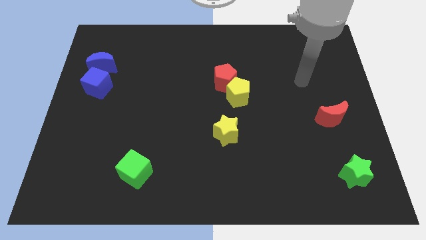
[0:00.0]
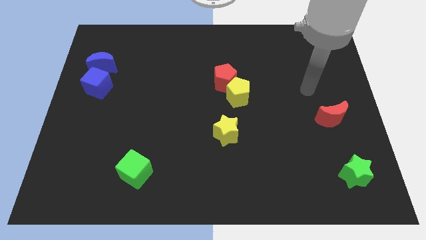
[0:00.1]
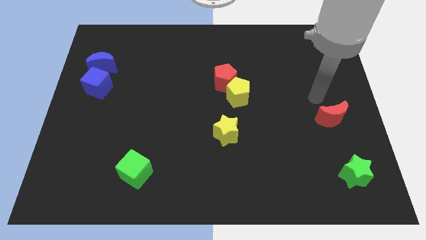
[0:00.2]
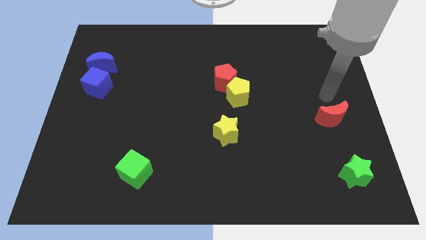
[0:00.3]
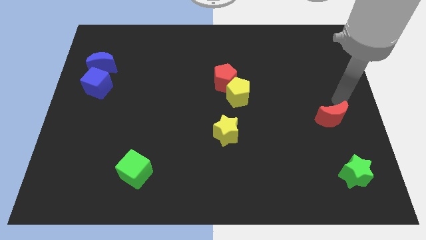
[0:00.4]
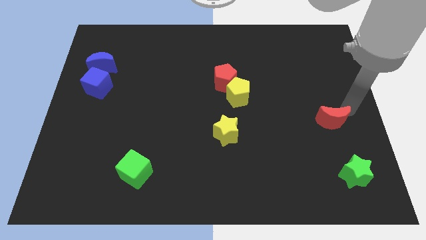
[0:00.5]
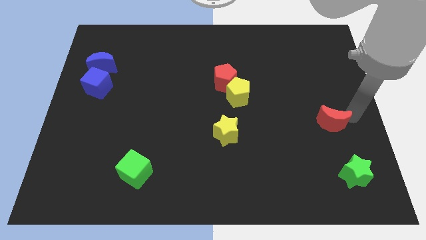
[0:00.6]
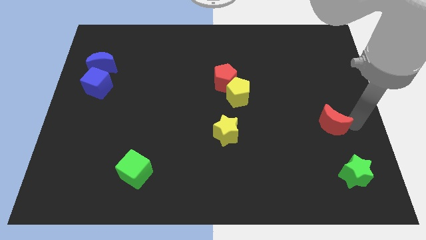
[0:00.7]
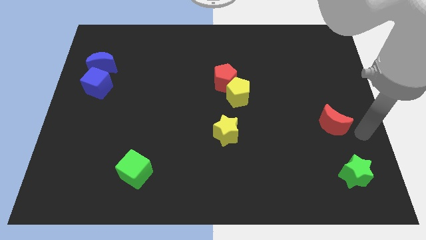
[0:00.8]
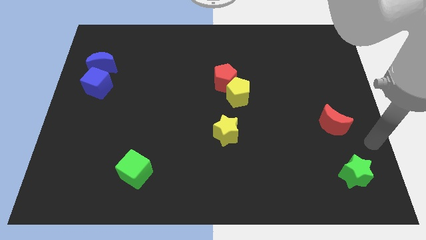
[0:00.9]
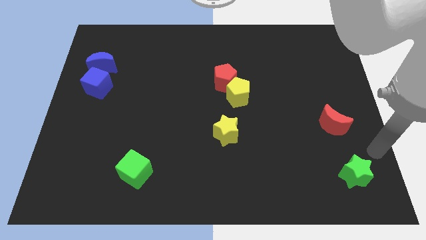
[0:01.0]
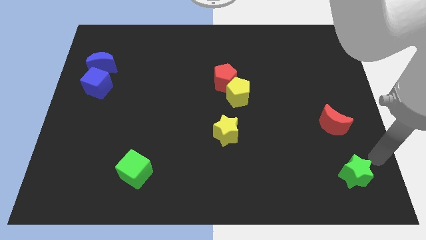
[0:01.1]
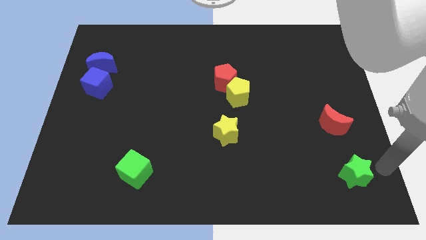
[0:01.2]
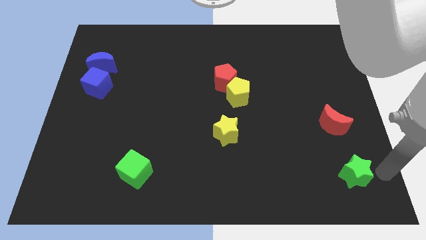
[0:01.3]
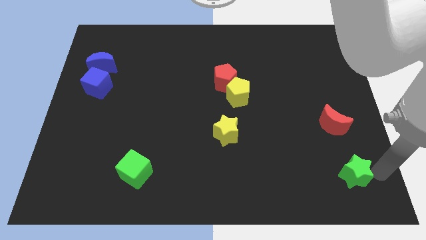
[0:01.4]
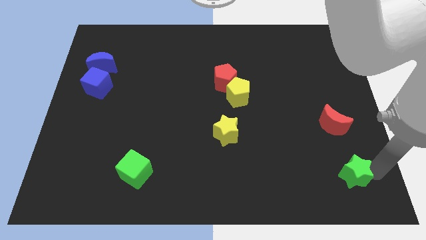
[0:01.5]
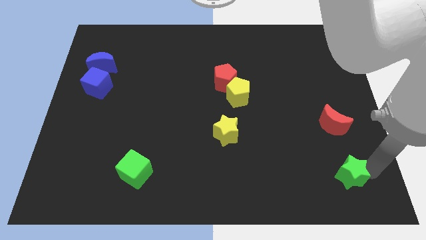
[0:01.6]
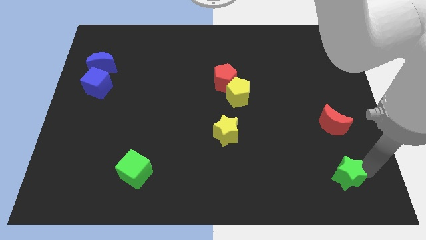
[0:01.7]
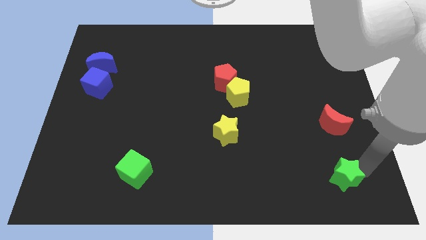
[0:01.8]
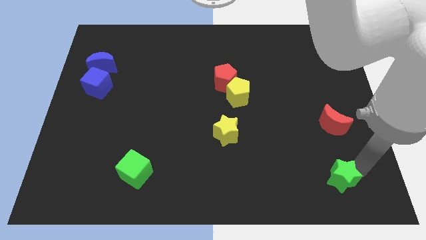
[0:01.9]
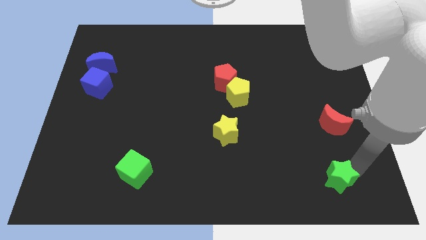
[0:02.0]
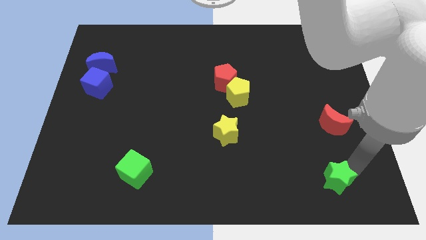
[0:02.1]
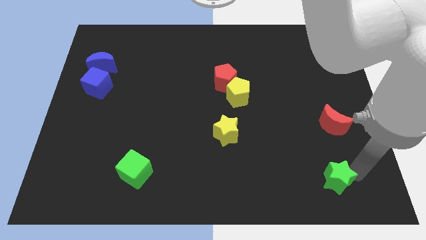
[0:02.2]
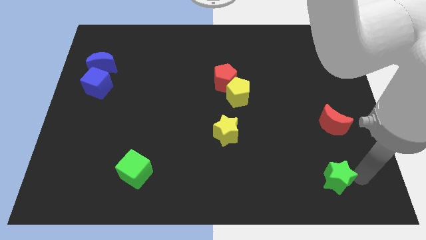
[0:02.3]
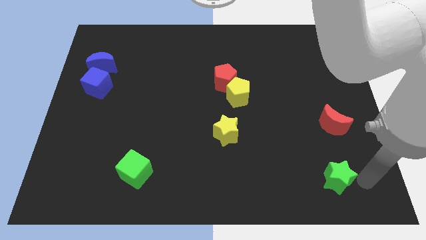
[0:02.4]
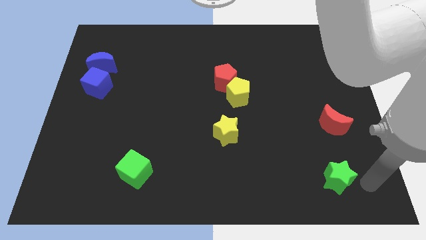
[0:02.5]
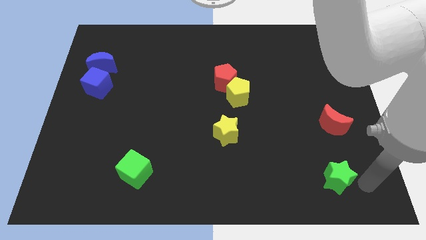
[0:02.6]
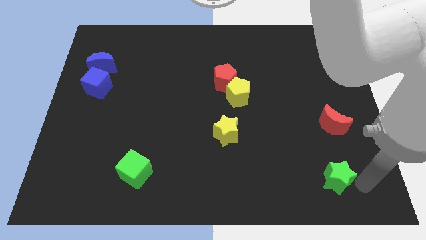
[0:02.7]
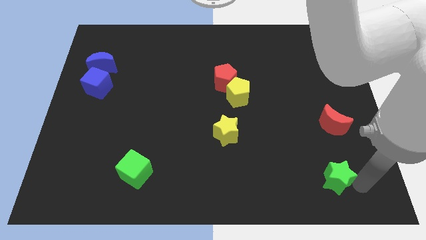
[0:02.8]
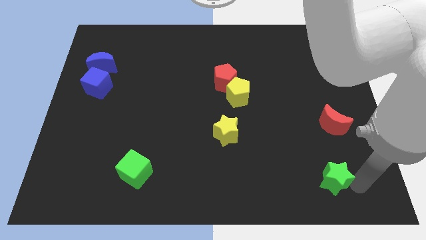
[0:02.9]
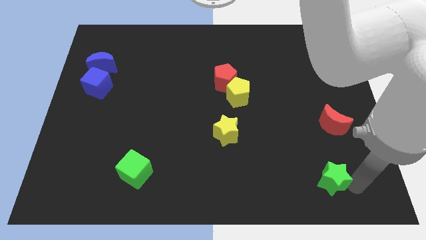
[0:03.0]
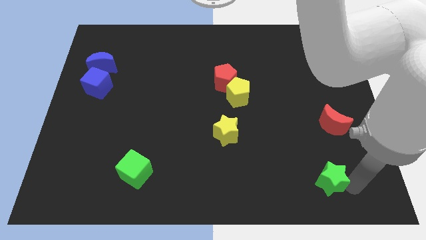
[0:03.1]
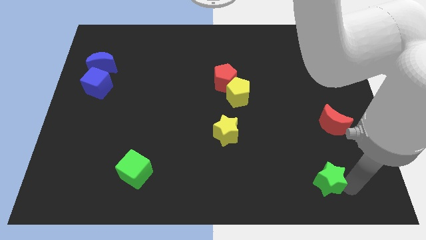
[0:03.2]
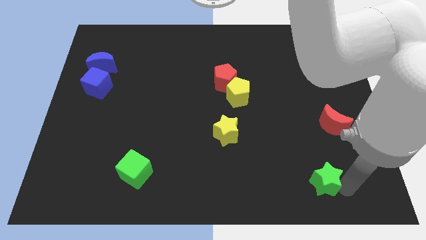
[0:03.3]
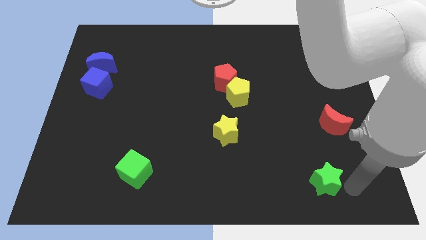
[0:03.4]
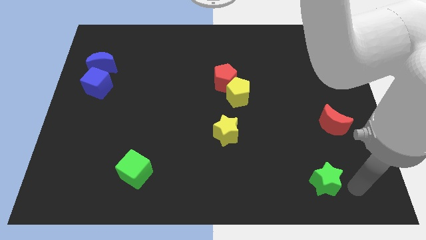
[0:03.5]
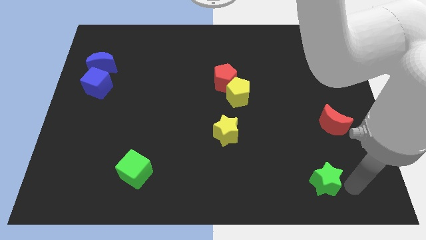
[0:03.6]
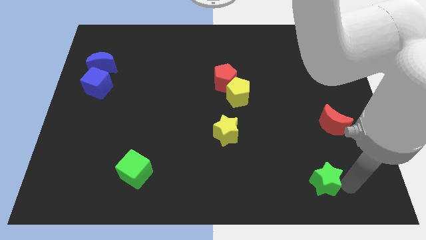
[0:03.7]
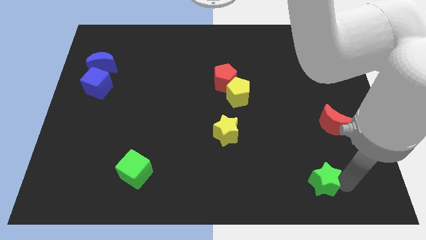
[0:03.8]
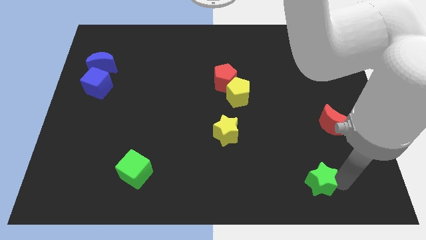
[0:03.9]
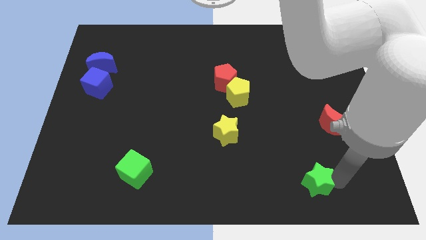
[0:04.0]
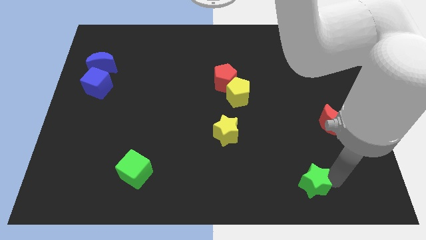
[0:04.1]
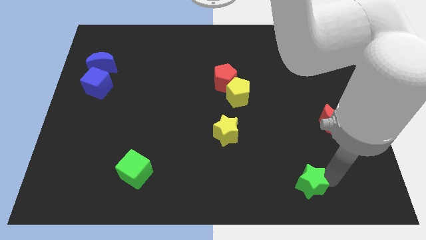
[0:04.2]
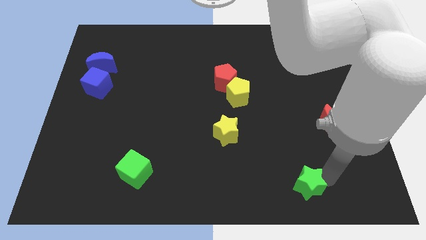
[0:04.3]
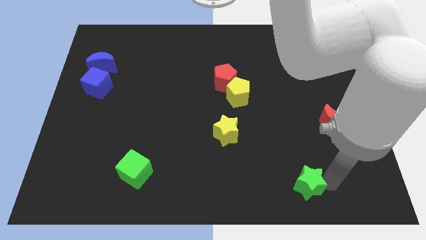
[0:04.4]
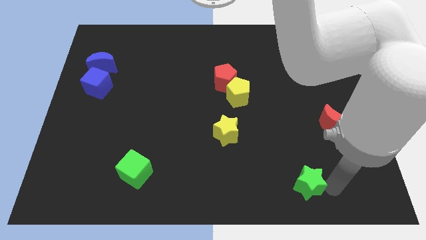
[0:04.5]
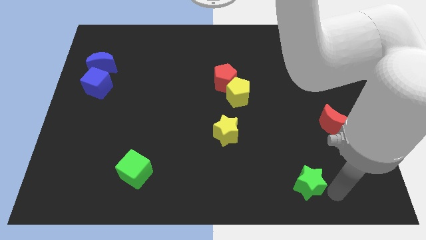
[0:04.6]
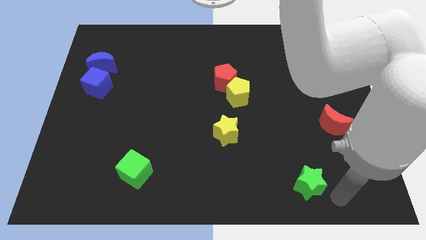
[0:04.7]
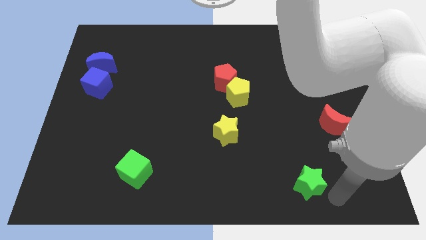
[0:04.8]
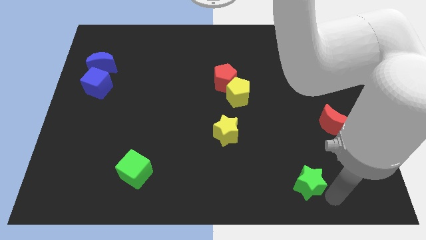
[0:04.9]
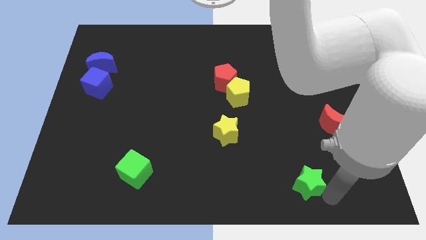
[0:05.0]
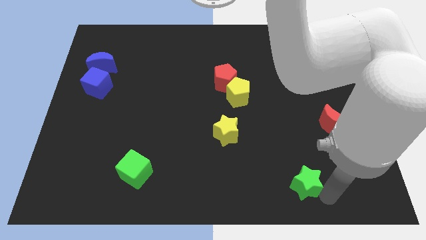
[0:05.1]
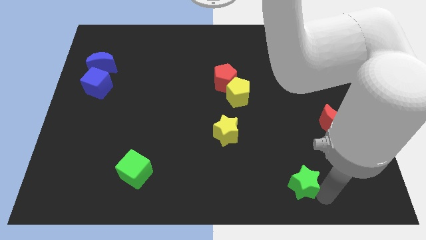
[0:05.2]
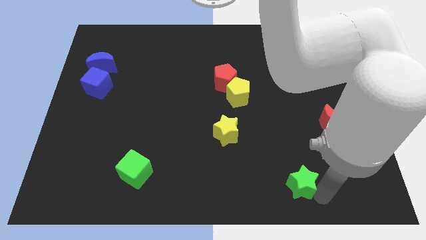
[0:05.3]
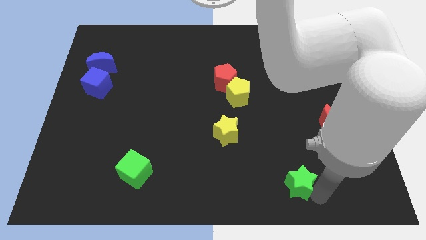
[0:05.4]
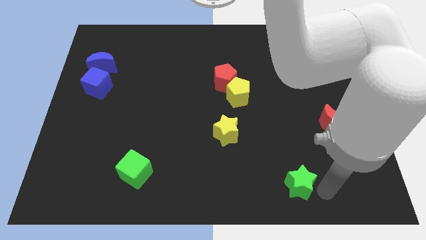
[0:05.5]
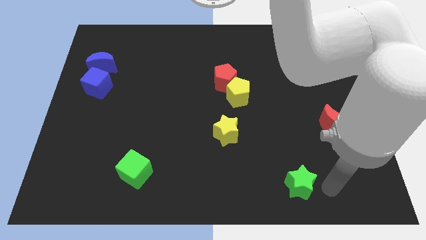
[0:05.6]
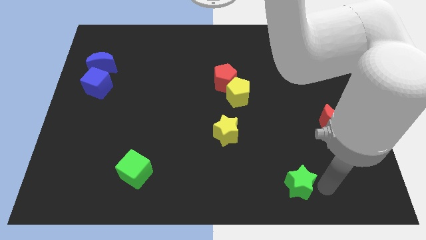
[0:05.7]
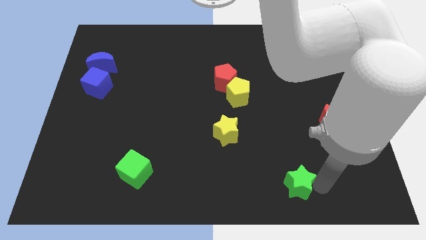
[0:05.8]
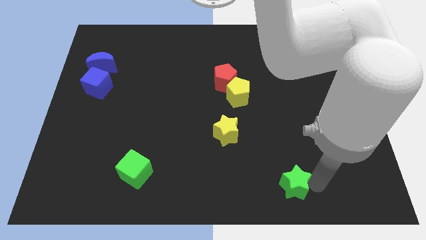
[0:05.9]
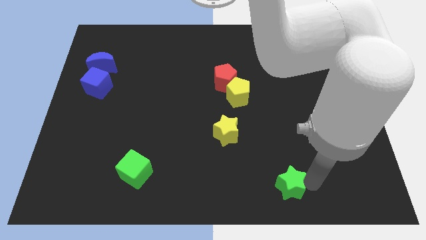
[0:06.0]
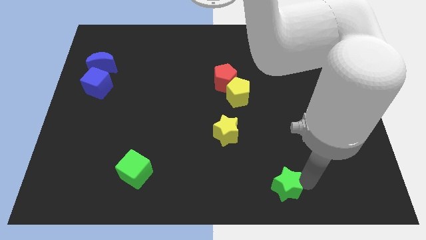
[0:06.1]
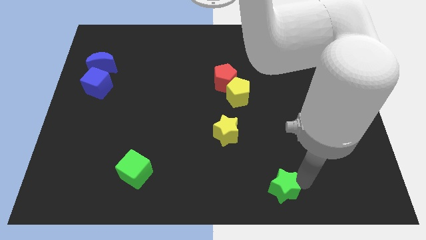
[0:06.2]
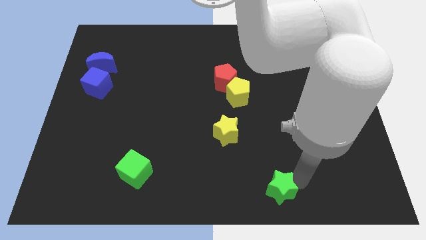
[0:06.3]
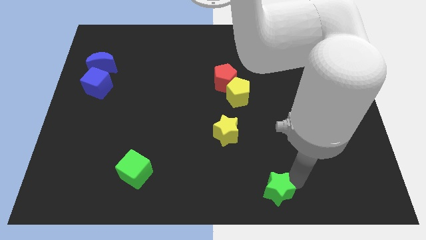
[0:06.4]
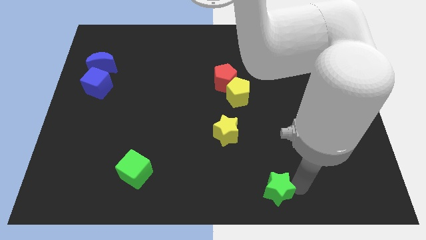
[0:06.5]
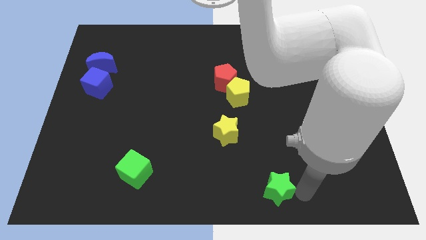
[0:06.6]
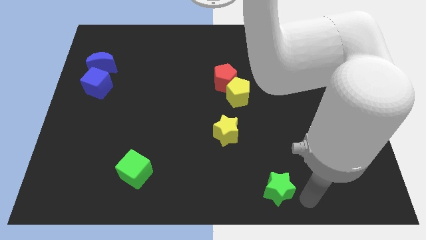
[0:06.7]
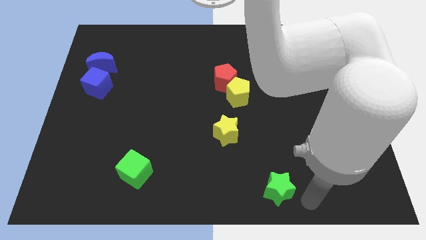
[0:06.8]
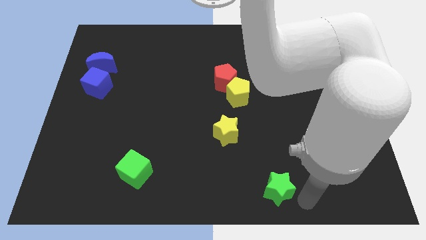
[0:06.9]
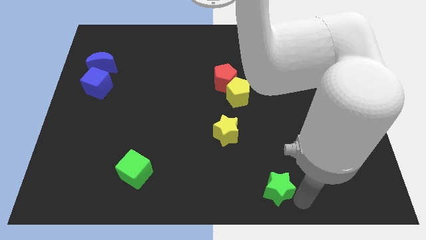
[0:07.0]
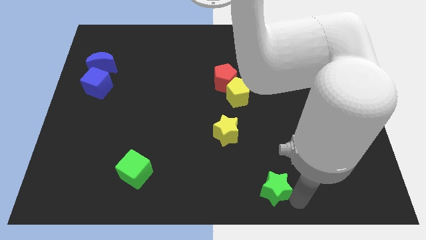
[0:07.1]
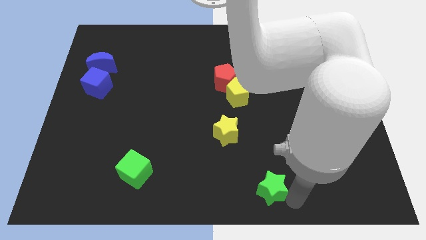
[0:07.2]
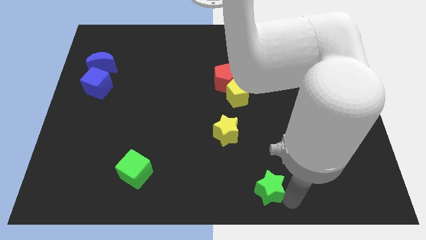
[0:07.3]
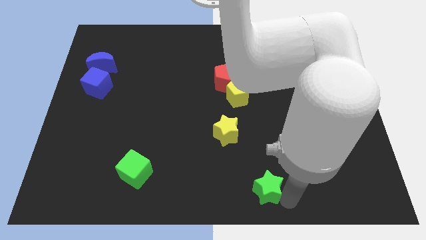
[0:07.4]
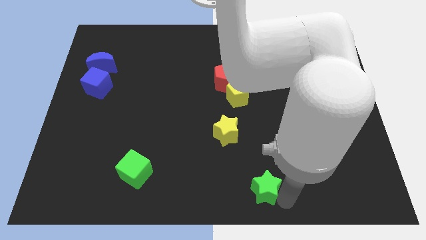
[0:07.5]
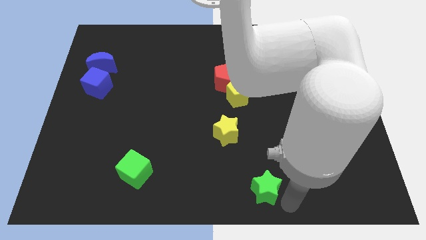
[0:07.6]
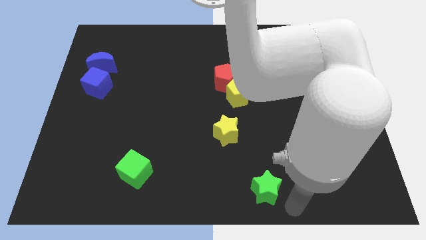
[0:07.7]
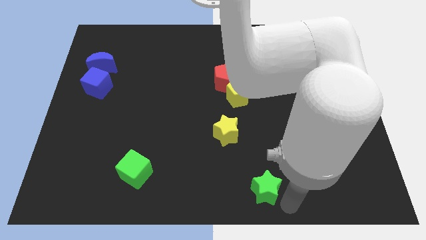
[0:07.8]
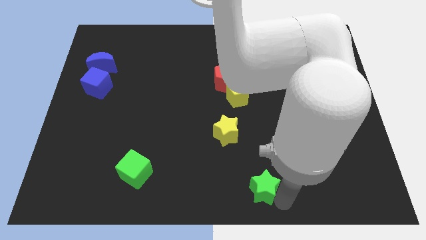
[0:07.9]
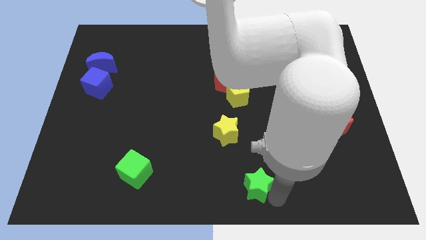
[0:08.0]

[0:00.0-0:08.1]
slide the green star to the left
